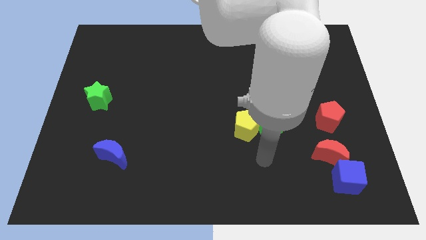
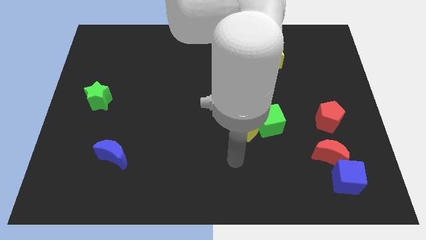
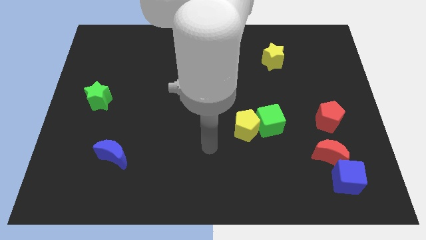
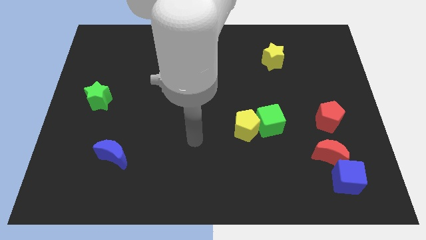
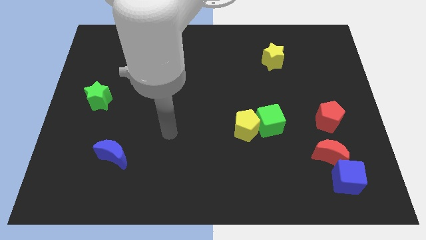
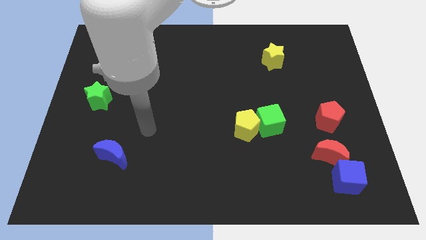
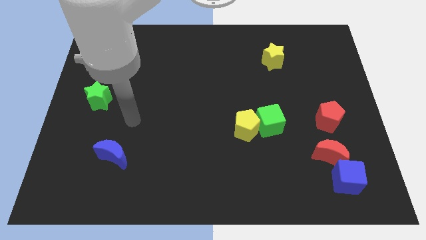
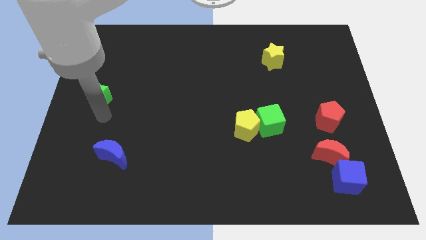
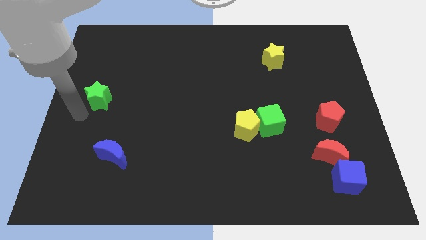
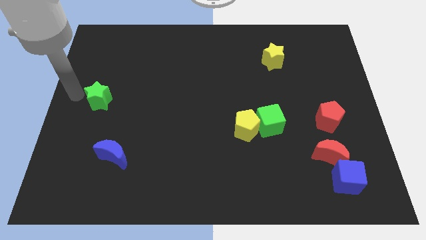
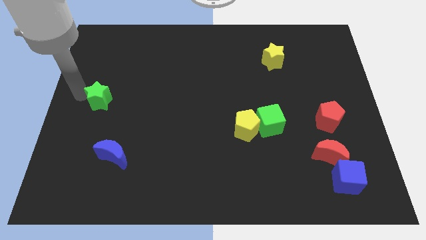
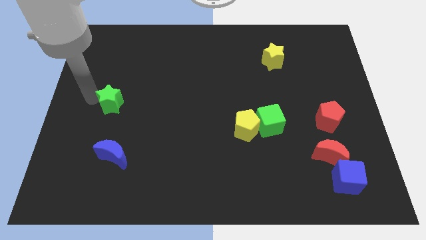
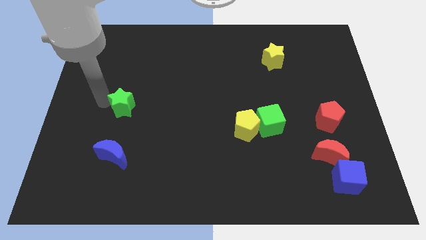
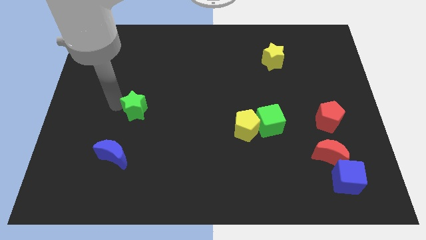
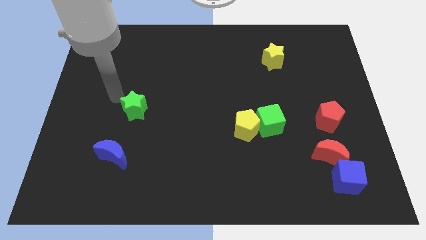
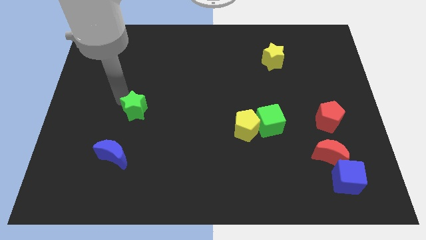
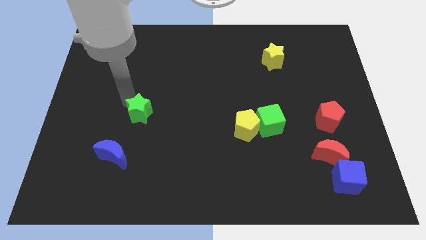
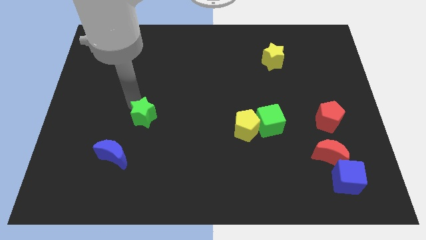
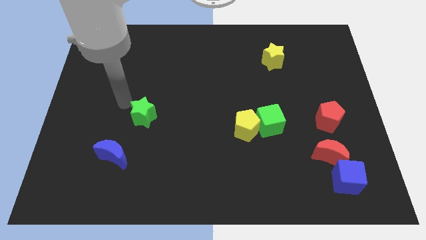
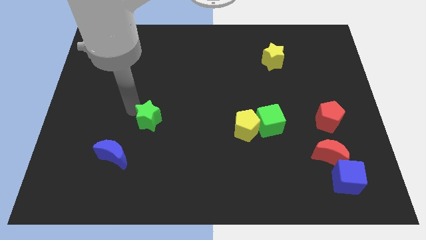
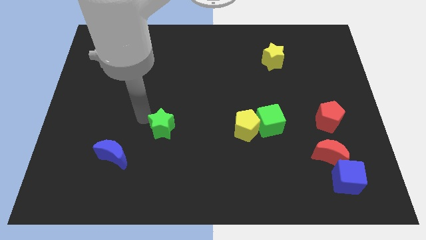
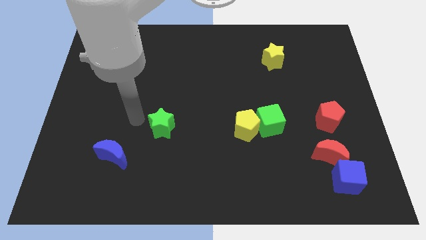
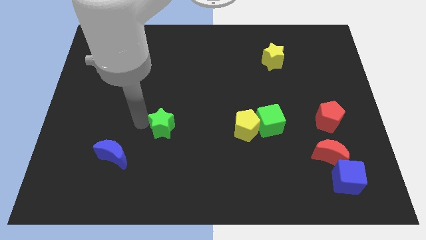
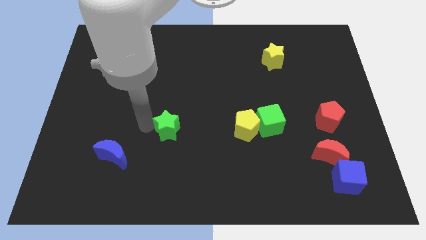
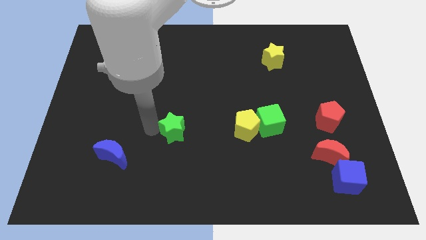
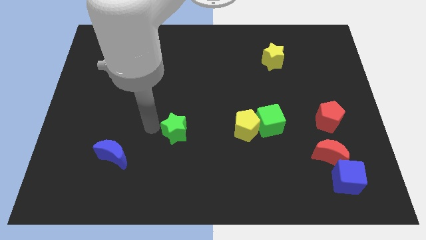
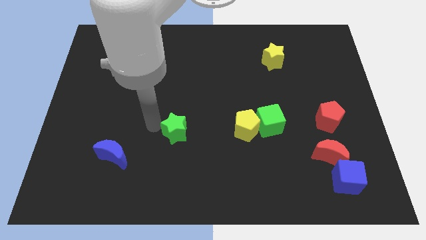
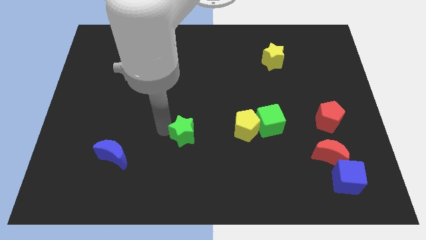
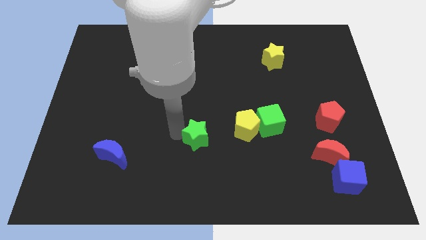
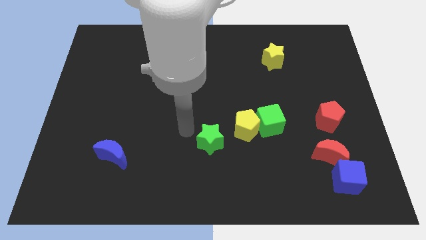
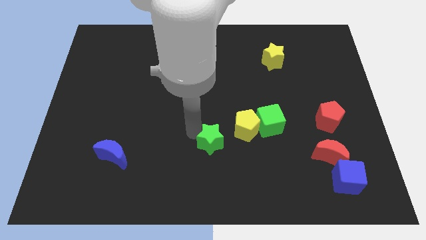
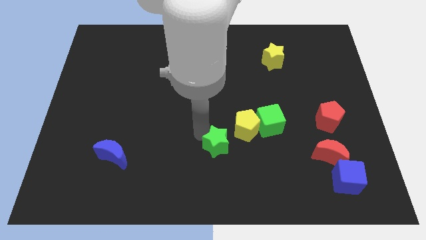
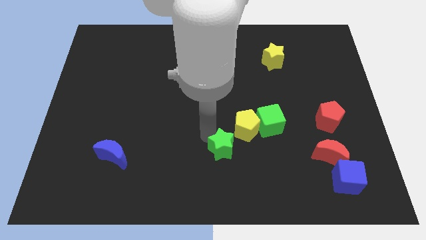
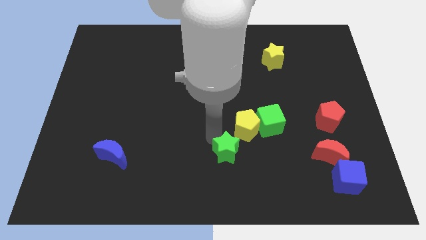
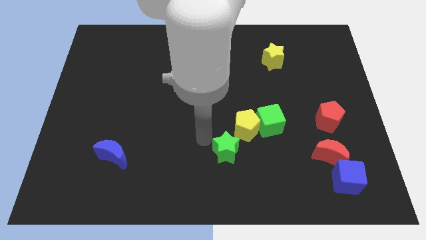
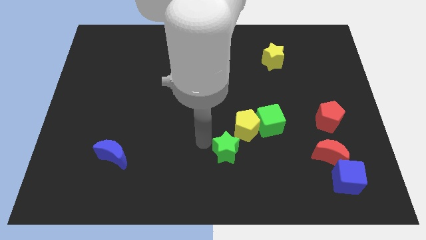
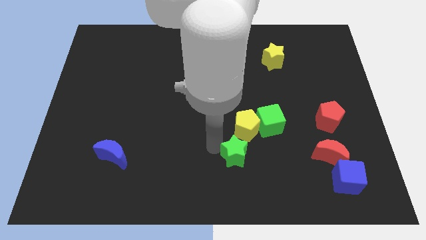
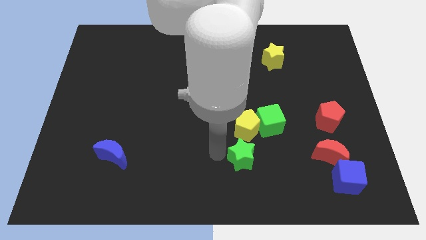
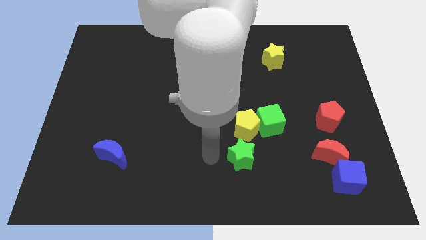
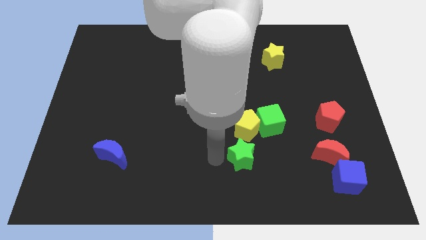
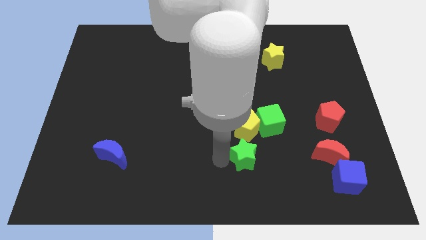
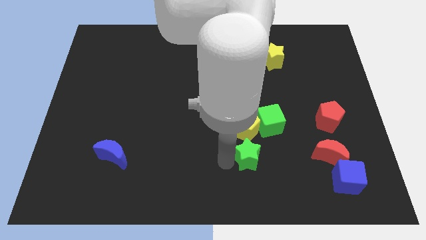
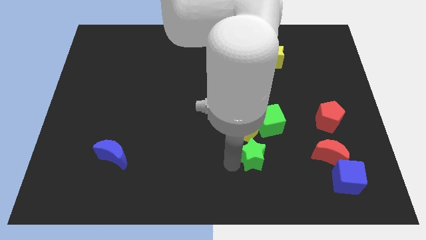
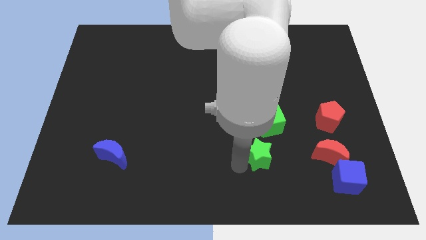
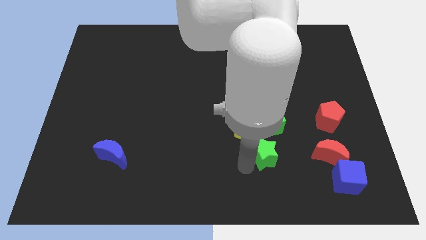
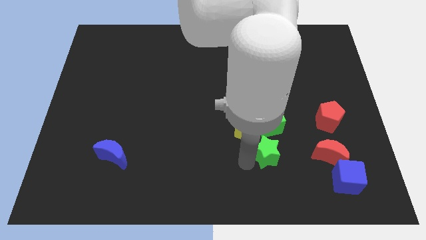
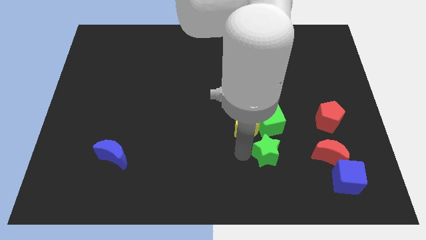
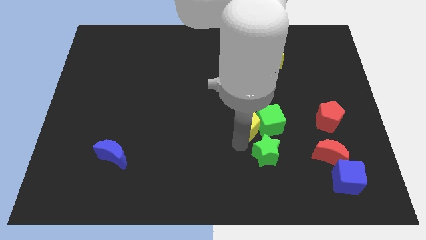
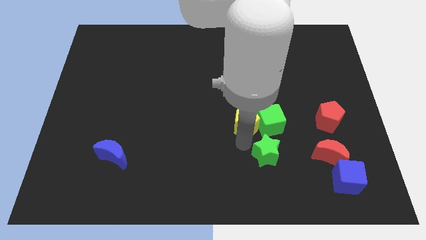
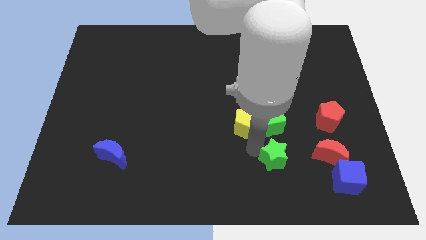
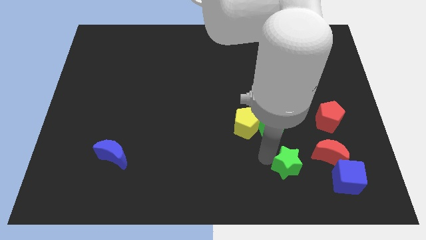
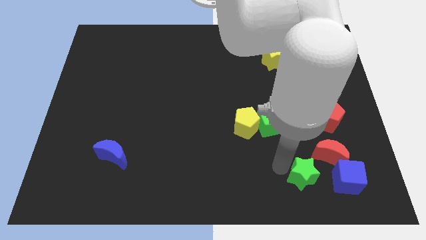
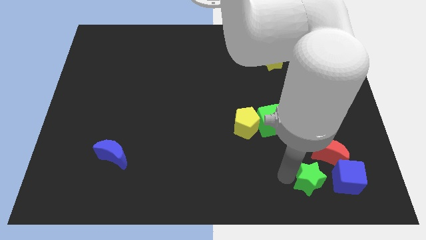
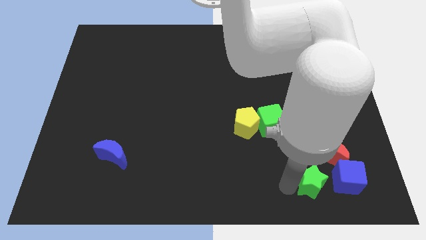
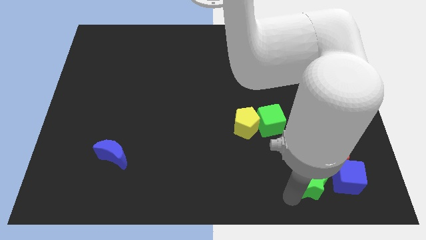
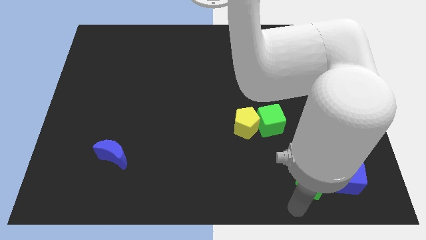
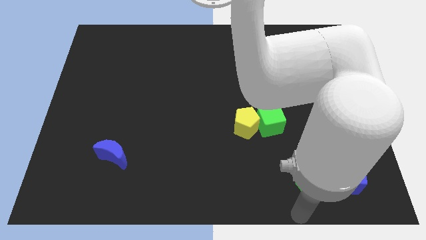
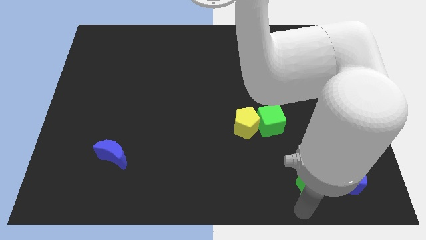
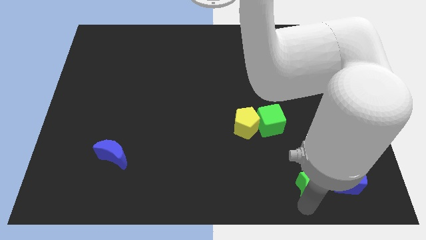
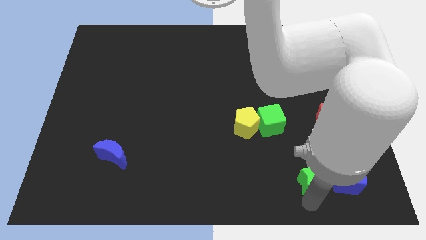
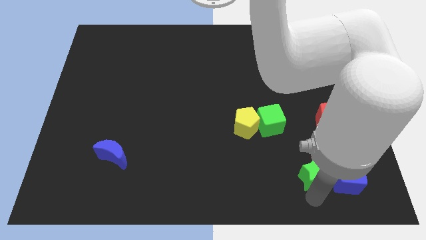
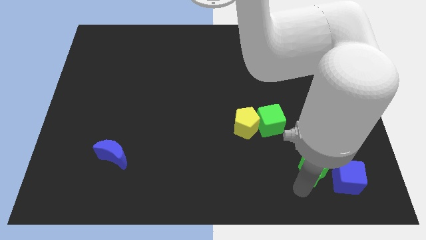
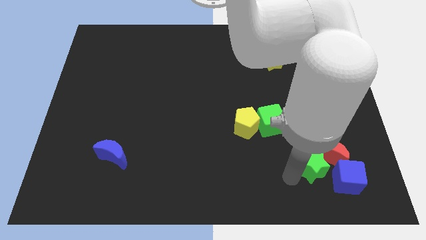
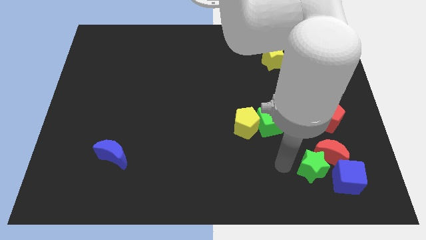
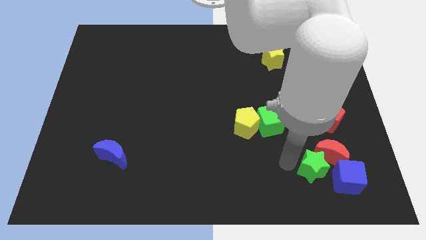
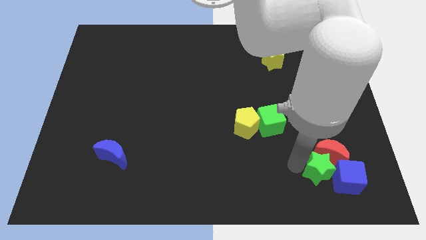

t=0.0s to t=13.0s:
slide the green star close to the blue cube
